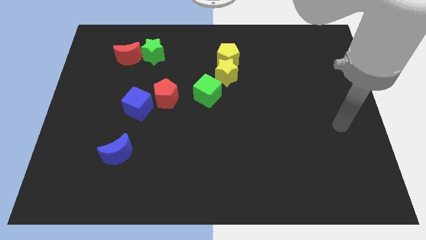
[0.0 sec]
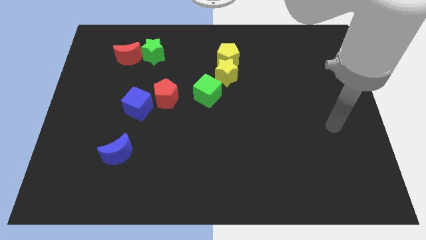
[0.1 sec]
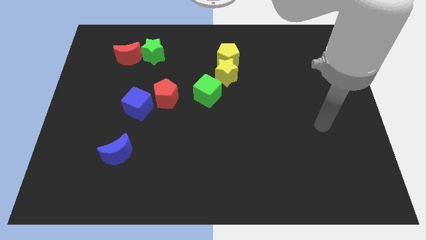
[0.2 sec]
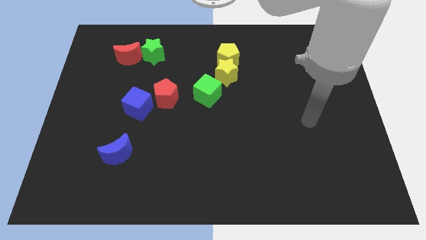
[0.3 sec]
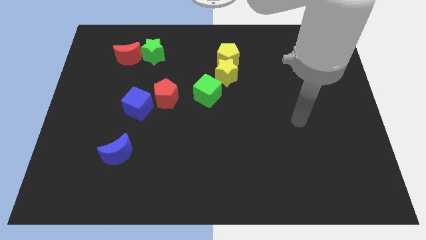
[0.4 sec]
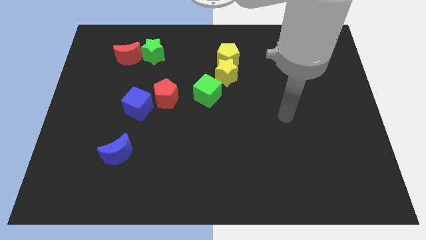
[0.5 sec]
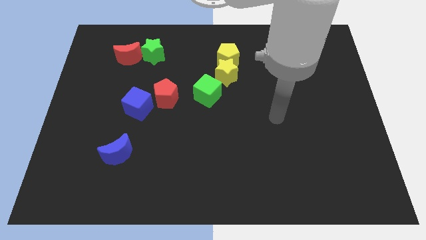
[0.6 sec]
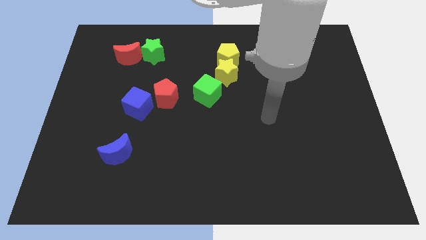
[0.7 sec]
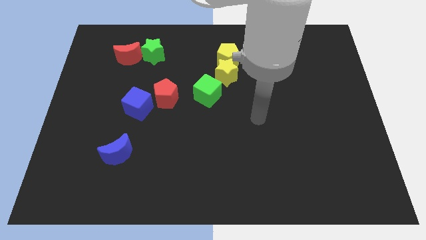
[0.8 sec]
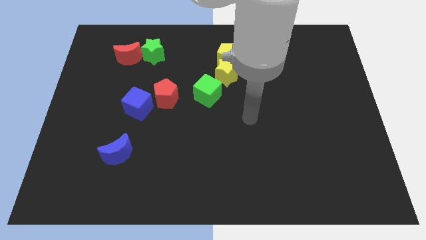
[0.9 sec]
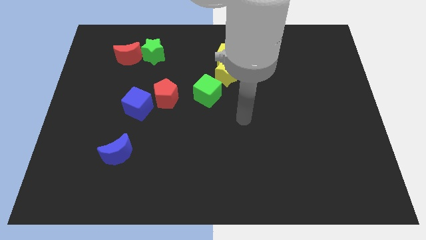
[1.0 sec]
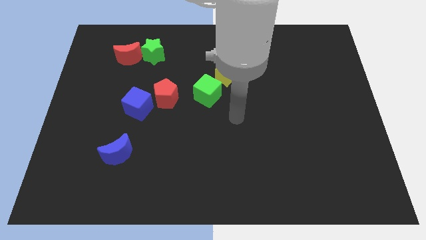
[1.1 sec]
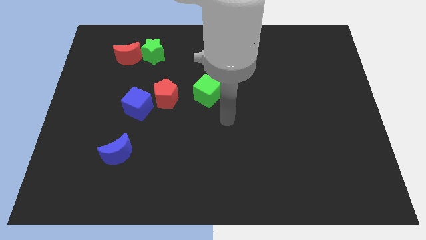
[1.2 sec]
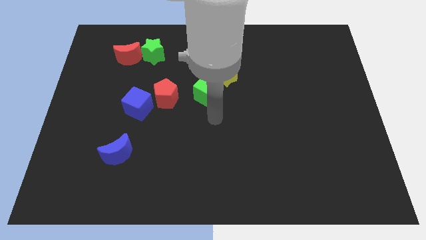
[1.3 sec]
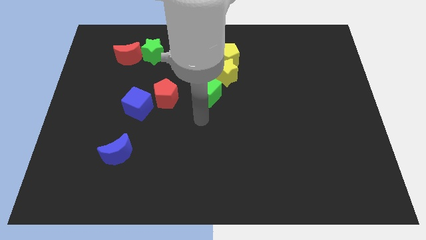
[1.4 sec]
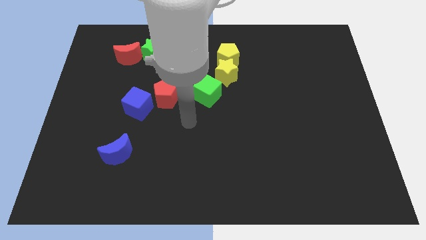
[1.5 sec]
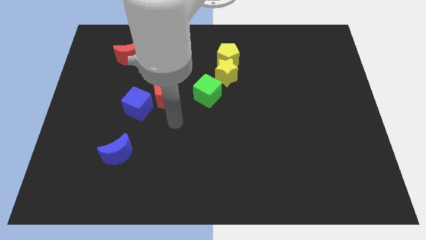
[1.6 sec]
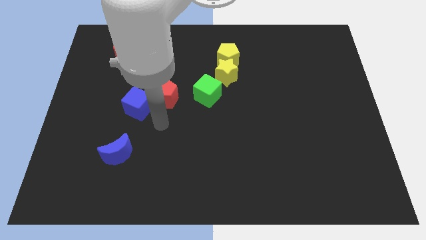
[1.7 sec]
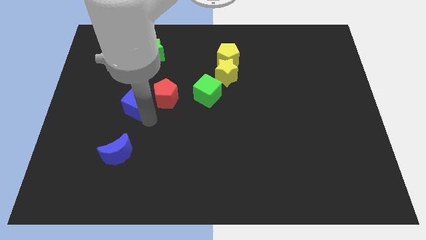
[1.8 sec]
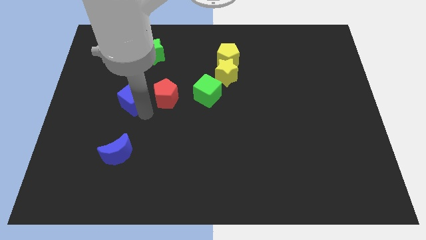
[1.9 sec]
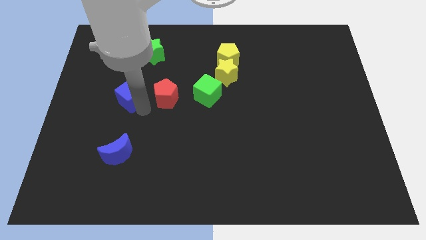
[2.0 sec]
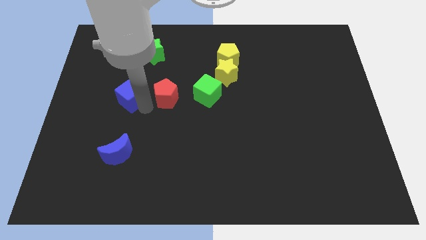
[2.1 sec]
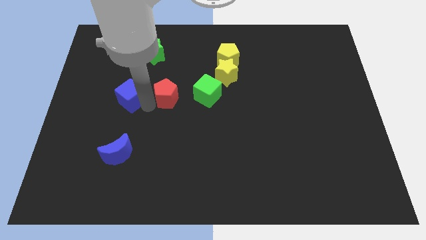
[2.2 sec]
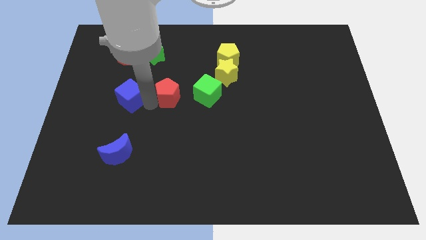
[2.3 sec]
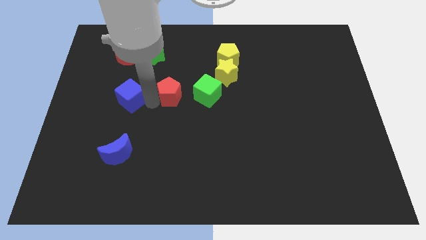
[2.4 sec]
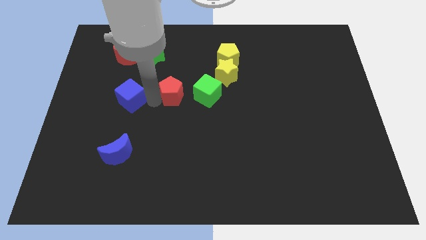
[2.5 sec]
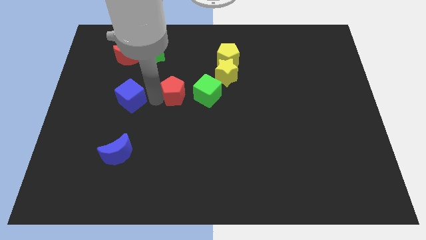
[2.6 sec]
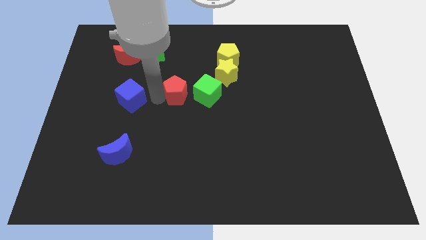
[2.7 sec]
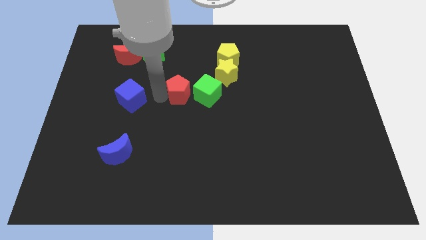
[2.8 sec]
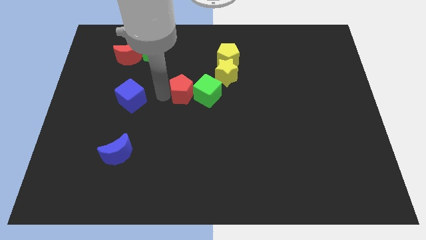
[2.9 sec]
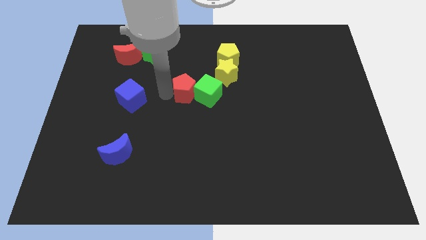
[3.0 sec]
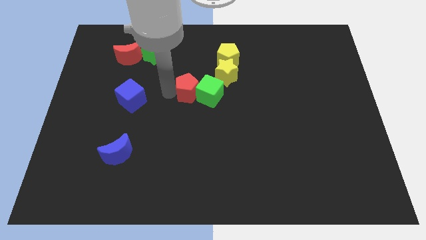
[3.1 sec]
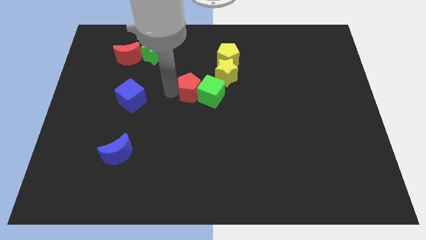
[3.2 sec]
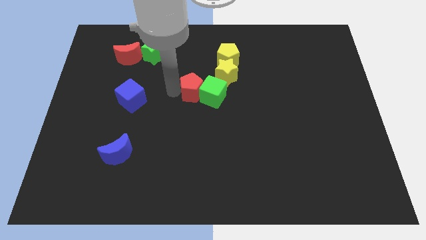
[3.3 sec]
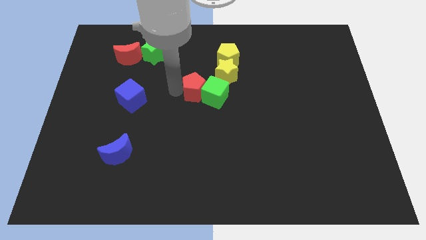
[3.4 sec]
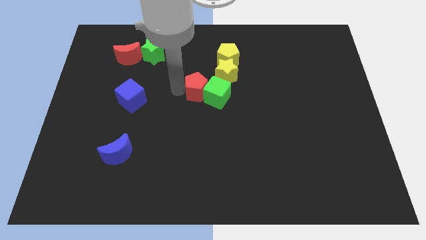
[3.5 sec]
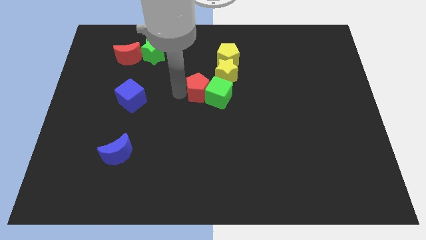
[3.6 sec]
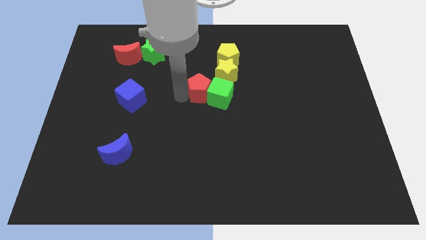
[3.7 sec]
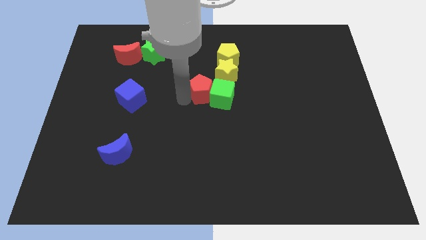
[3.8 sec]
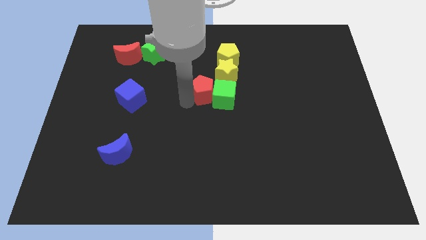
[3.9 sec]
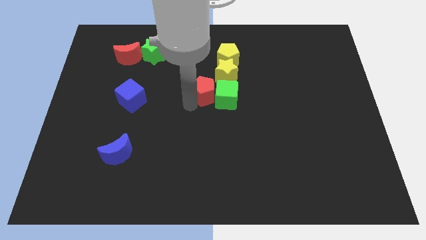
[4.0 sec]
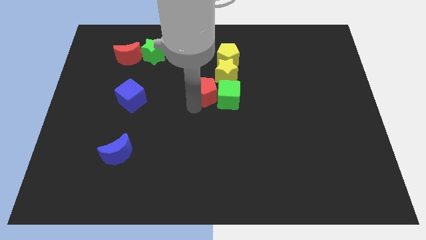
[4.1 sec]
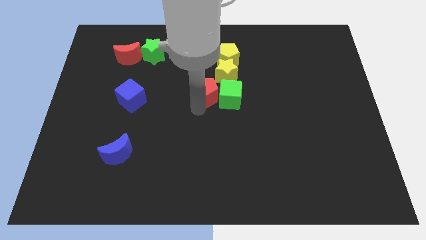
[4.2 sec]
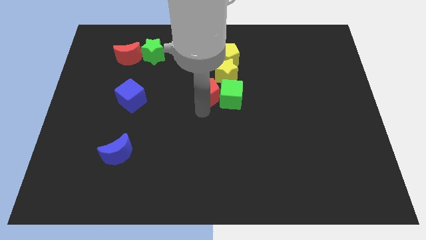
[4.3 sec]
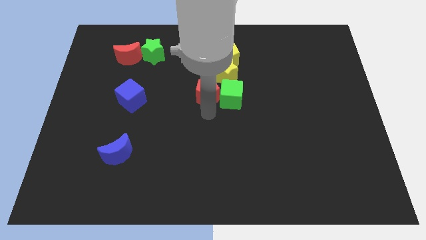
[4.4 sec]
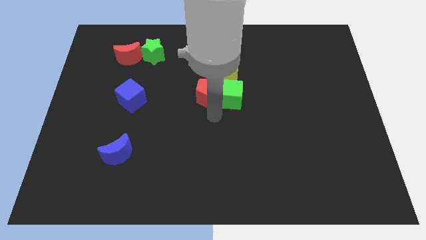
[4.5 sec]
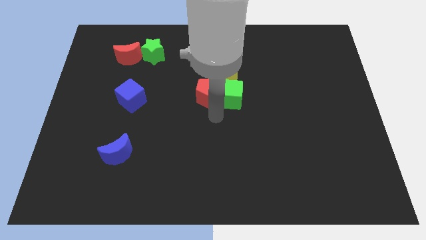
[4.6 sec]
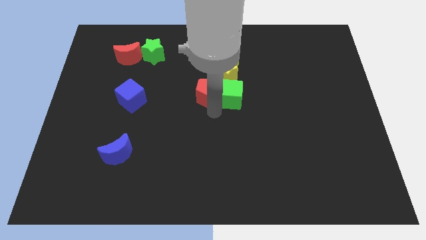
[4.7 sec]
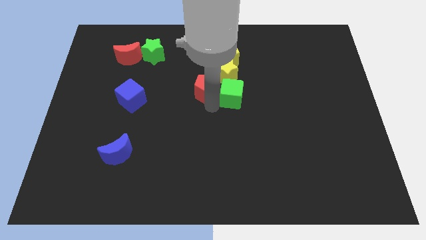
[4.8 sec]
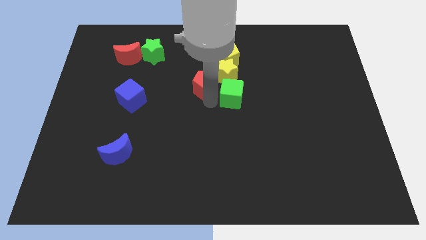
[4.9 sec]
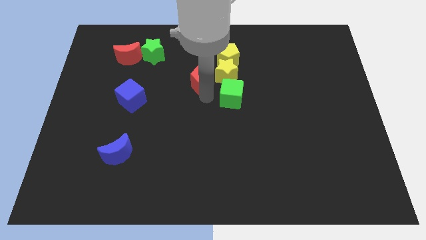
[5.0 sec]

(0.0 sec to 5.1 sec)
slide the red pentagon to the yellow star

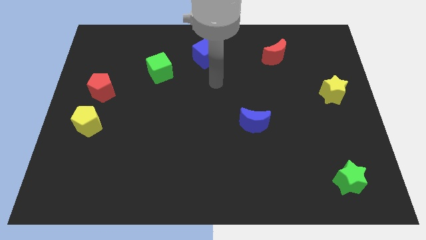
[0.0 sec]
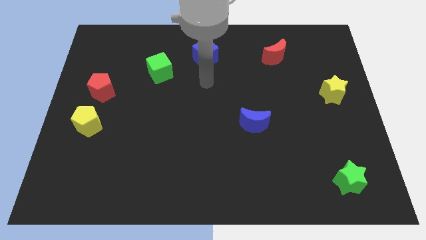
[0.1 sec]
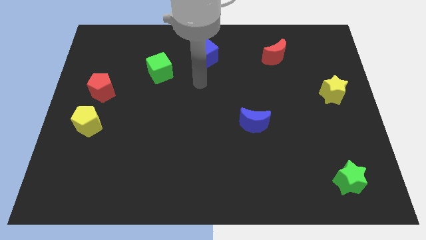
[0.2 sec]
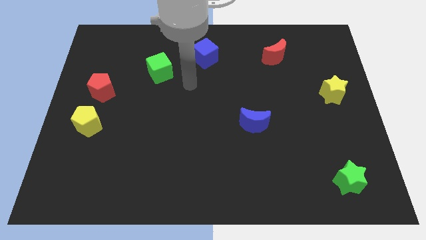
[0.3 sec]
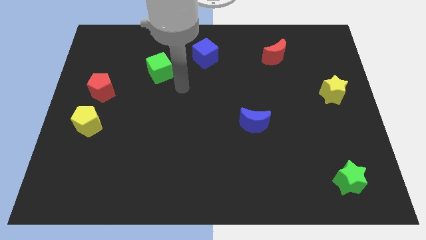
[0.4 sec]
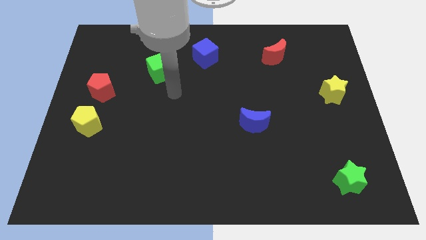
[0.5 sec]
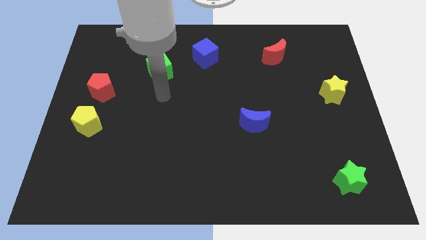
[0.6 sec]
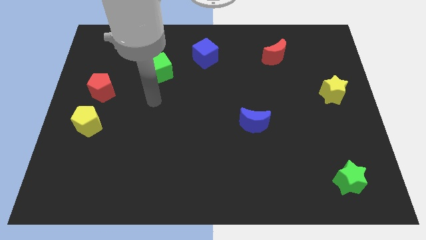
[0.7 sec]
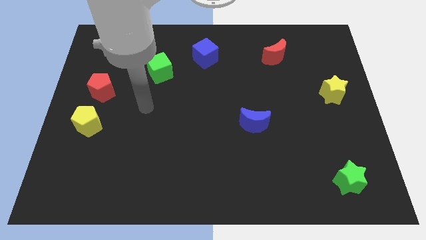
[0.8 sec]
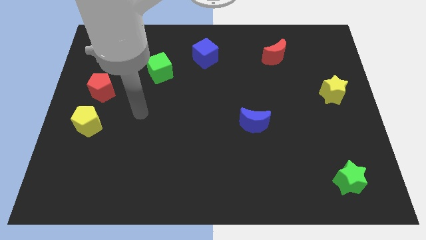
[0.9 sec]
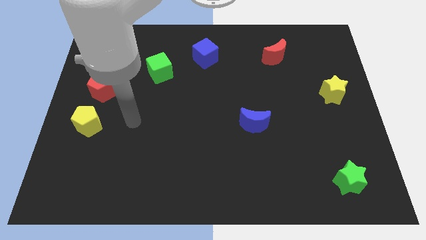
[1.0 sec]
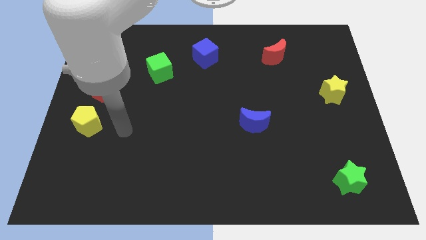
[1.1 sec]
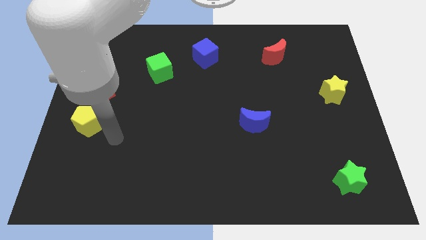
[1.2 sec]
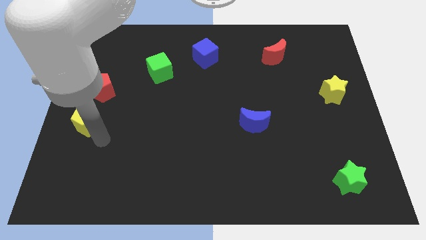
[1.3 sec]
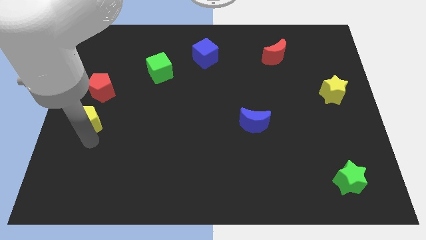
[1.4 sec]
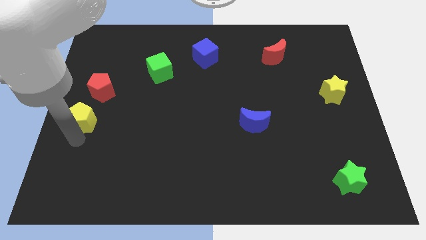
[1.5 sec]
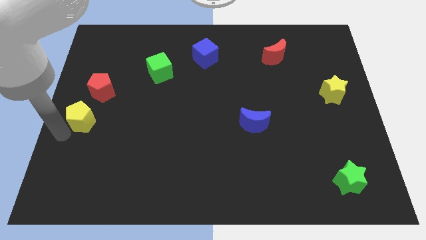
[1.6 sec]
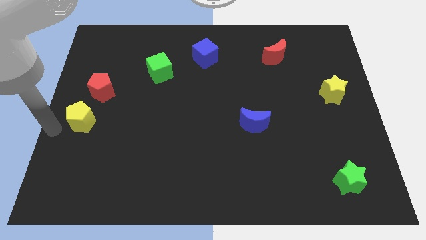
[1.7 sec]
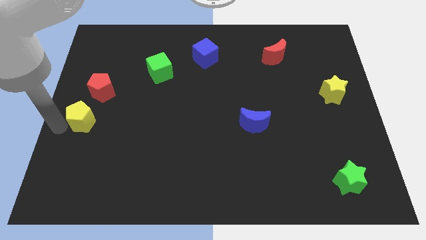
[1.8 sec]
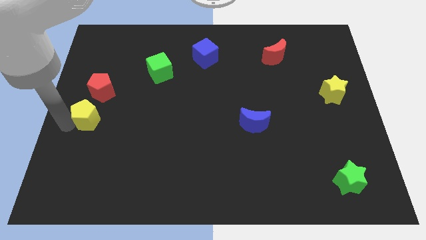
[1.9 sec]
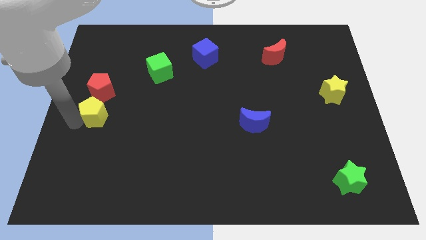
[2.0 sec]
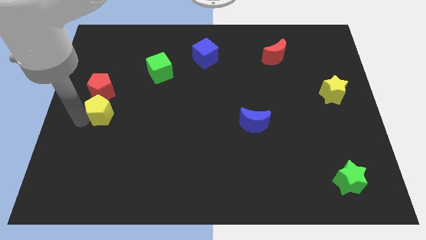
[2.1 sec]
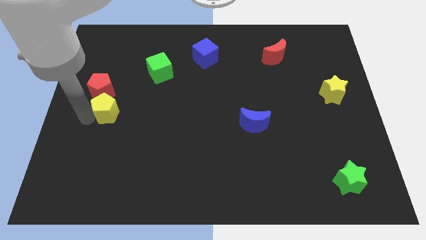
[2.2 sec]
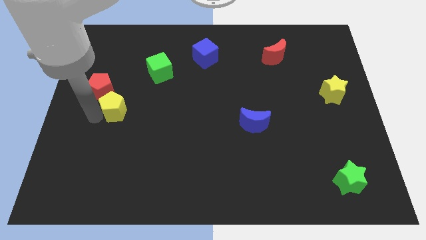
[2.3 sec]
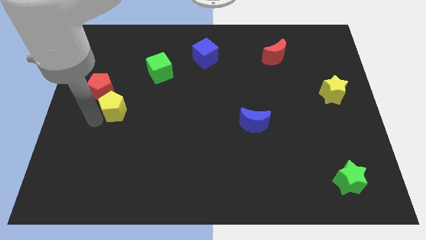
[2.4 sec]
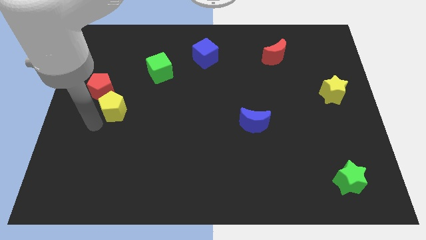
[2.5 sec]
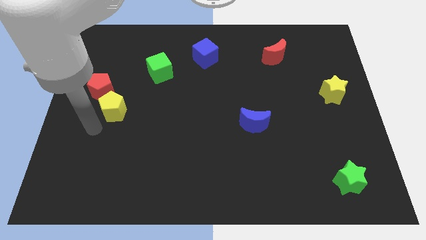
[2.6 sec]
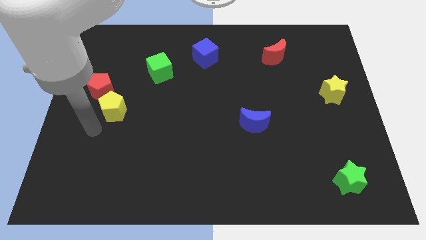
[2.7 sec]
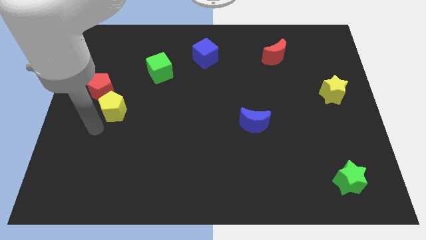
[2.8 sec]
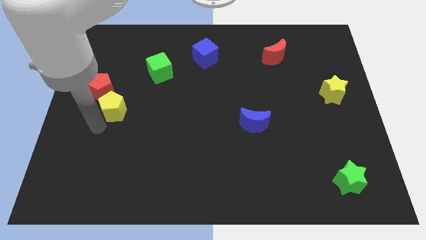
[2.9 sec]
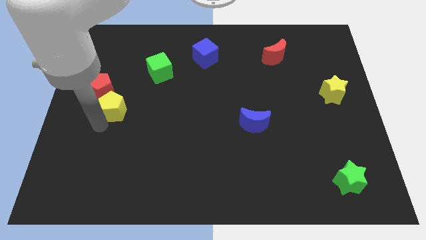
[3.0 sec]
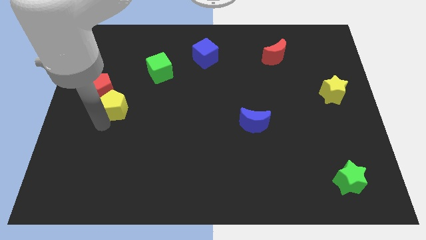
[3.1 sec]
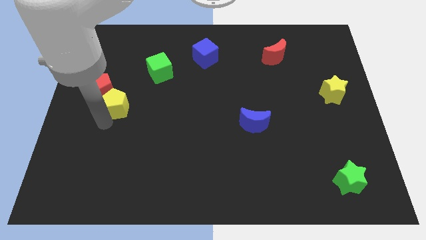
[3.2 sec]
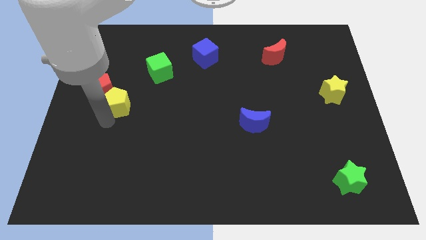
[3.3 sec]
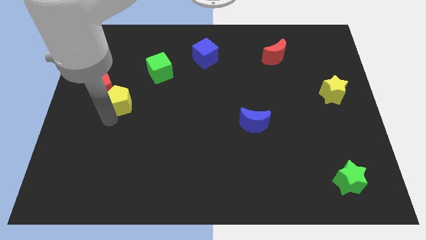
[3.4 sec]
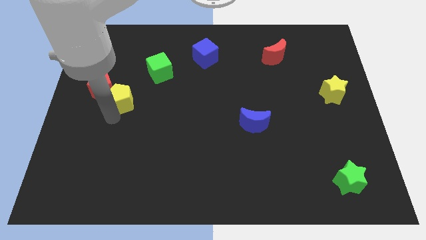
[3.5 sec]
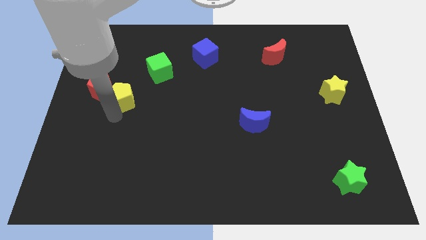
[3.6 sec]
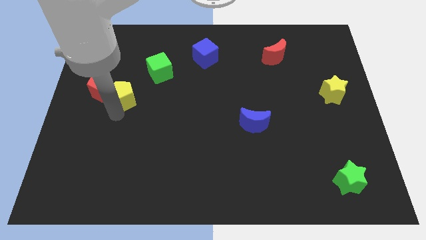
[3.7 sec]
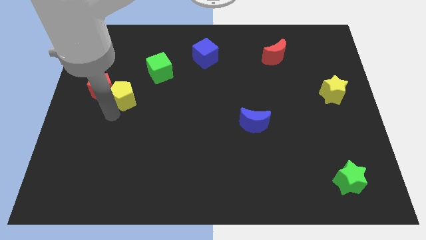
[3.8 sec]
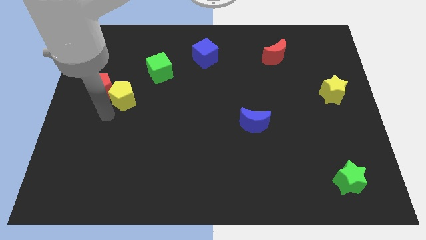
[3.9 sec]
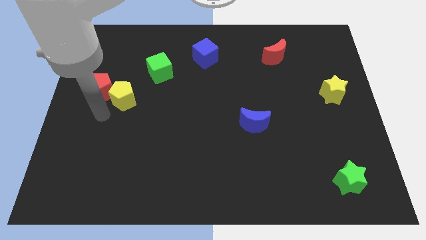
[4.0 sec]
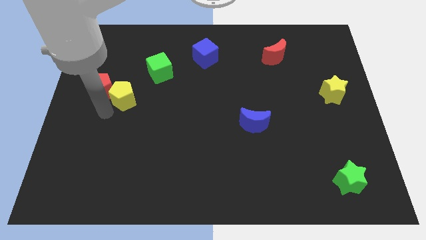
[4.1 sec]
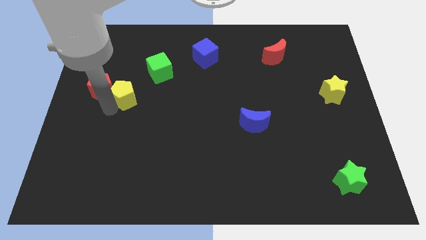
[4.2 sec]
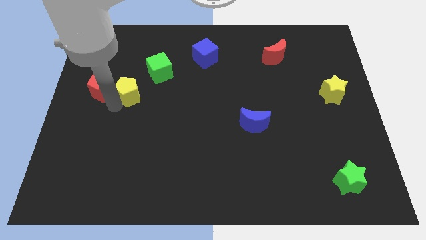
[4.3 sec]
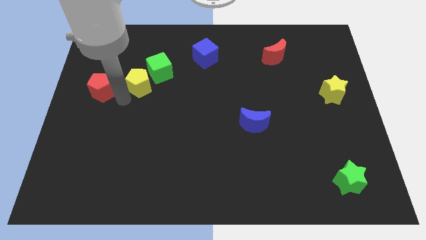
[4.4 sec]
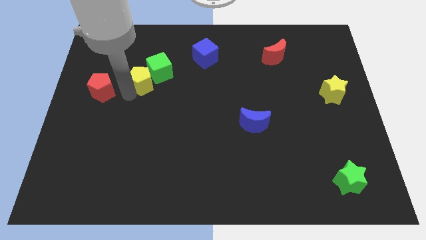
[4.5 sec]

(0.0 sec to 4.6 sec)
put the yellow pentagon next to the green cube
